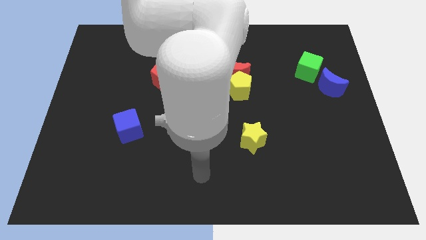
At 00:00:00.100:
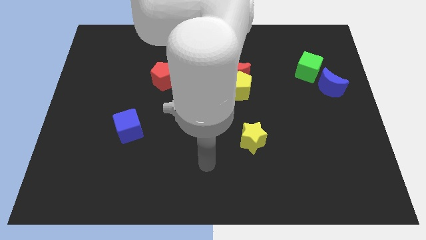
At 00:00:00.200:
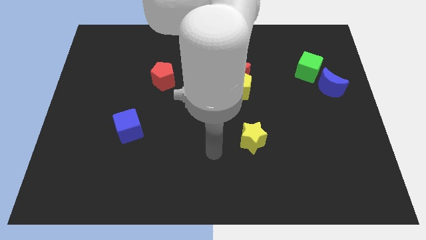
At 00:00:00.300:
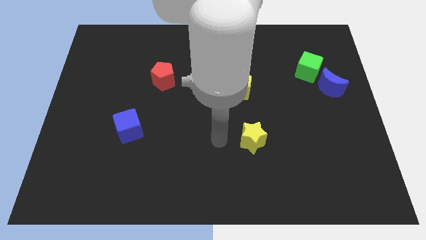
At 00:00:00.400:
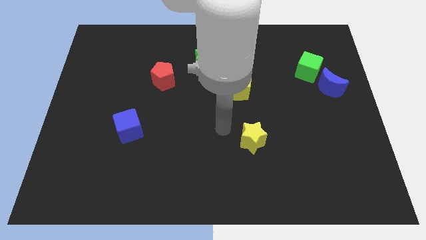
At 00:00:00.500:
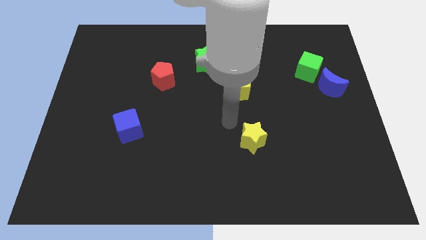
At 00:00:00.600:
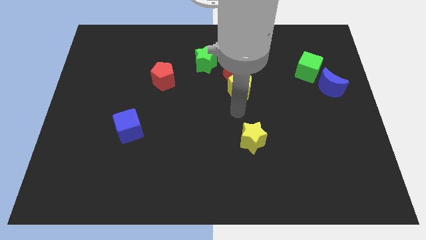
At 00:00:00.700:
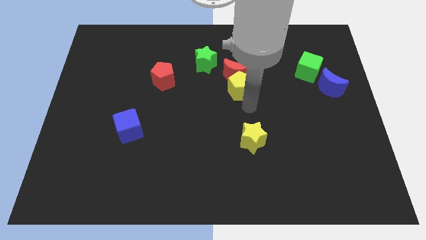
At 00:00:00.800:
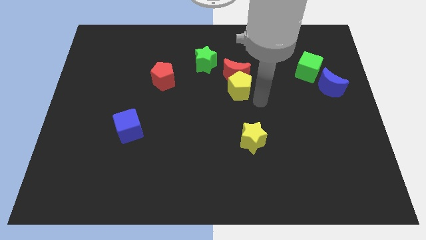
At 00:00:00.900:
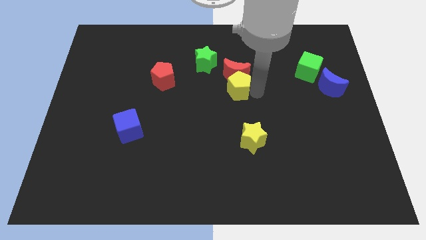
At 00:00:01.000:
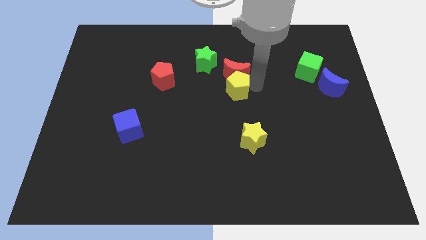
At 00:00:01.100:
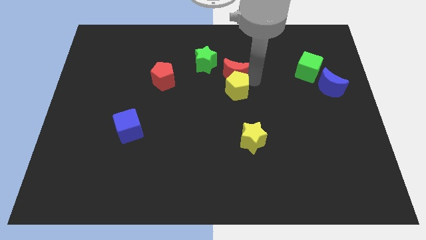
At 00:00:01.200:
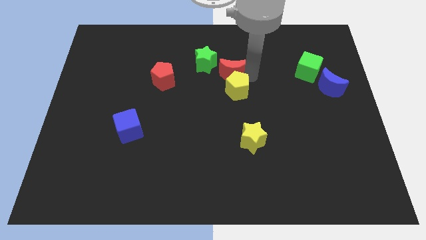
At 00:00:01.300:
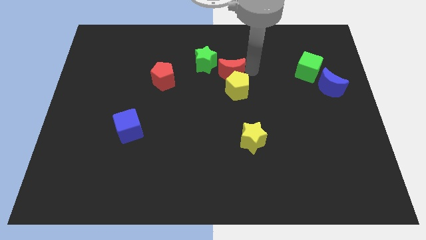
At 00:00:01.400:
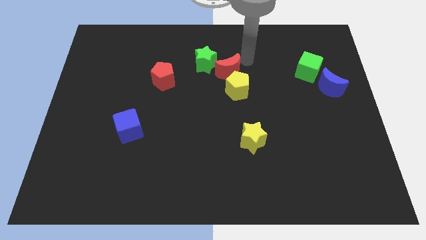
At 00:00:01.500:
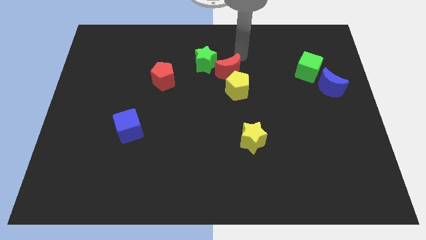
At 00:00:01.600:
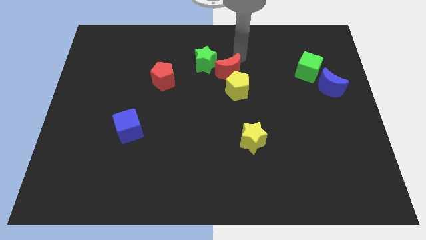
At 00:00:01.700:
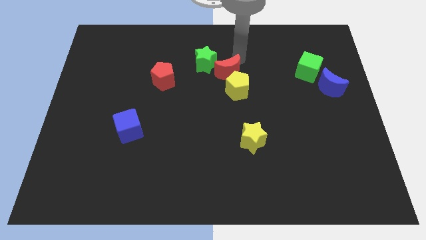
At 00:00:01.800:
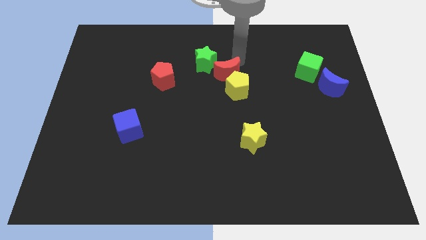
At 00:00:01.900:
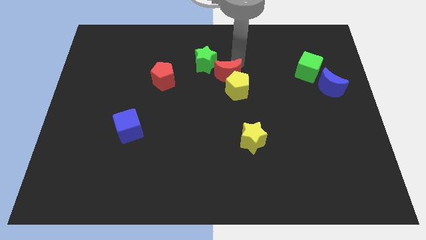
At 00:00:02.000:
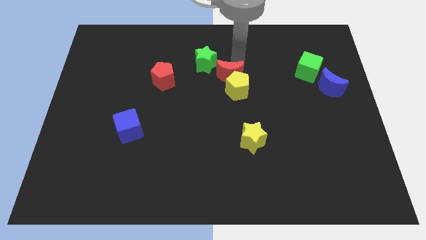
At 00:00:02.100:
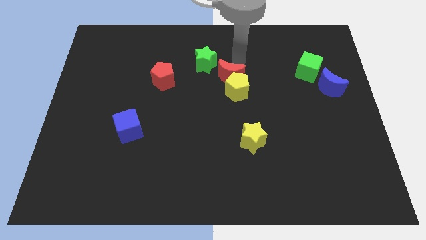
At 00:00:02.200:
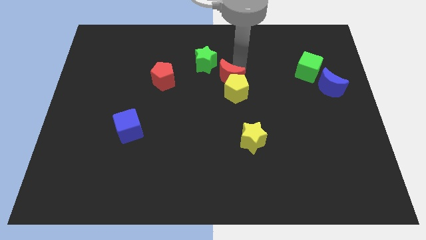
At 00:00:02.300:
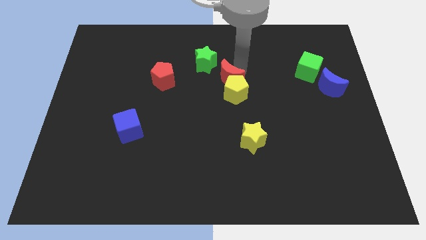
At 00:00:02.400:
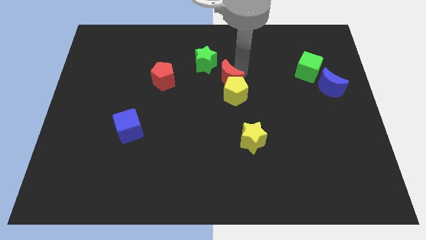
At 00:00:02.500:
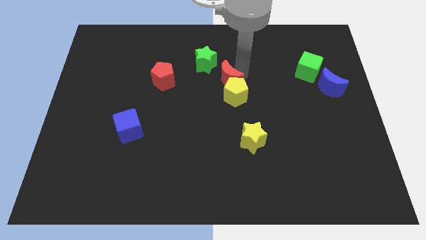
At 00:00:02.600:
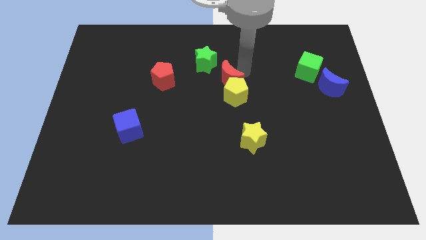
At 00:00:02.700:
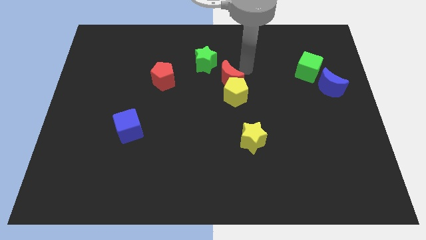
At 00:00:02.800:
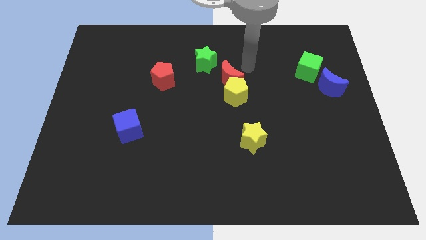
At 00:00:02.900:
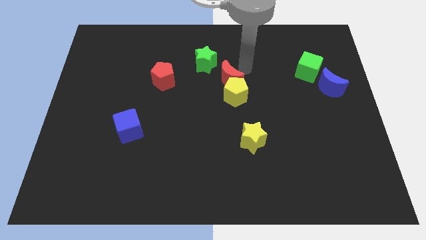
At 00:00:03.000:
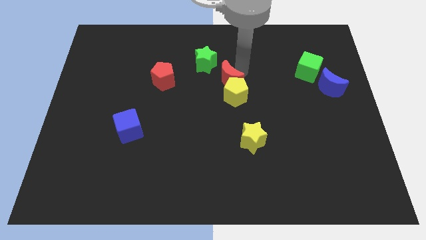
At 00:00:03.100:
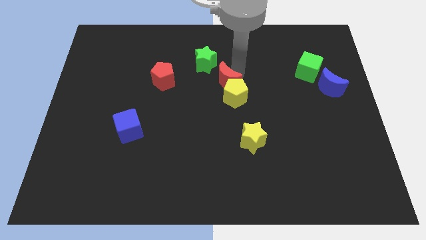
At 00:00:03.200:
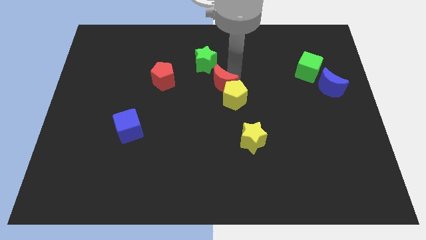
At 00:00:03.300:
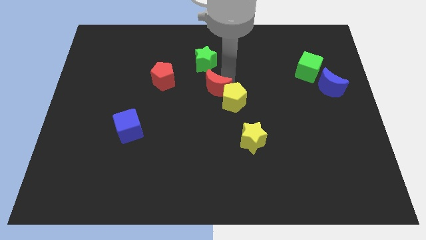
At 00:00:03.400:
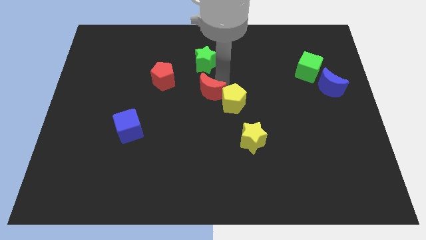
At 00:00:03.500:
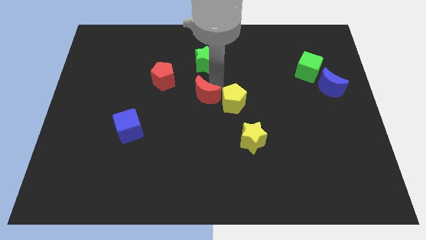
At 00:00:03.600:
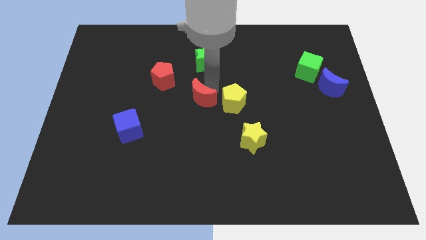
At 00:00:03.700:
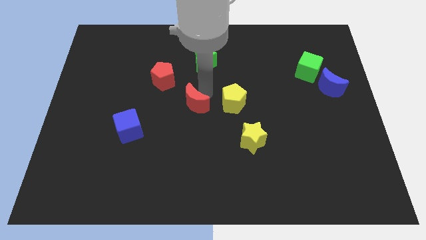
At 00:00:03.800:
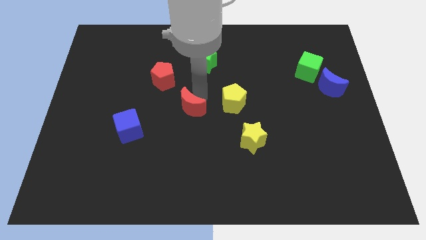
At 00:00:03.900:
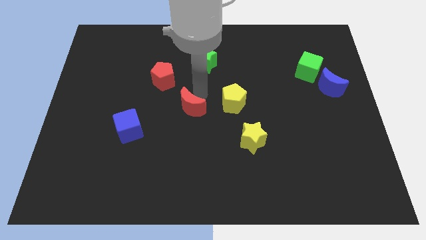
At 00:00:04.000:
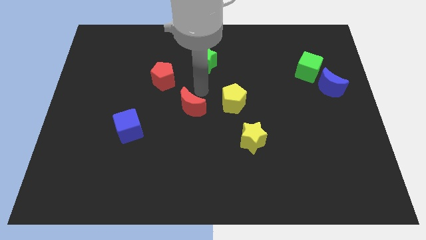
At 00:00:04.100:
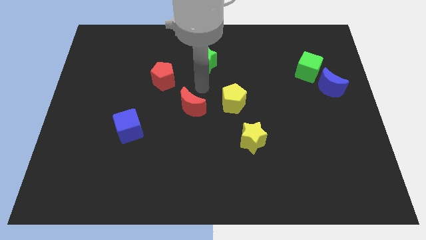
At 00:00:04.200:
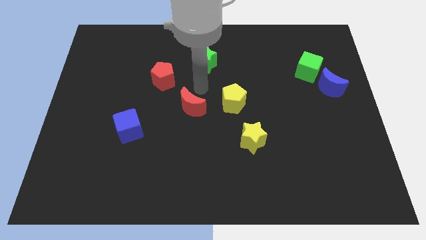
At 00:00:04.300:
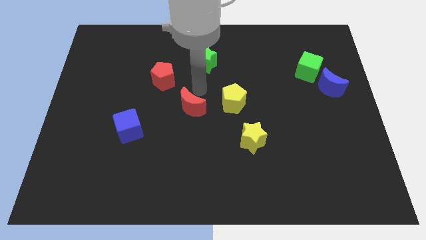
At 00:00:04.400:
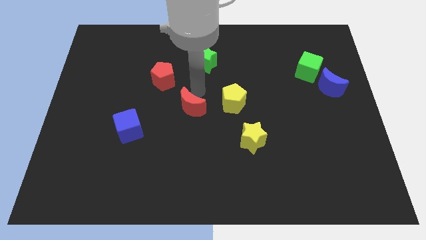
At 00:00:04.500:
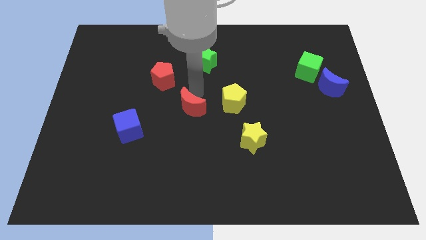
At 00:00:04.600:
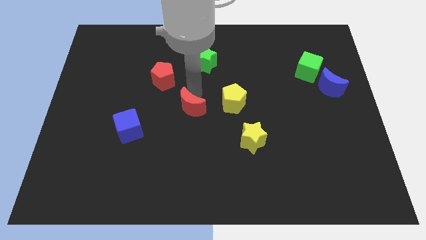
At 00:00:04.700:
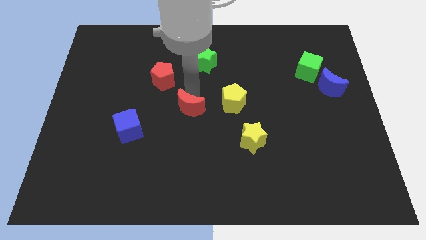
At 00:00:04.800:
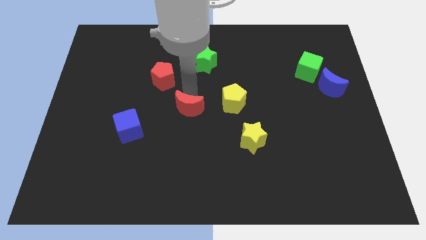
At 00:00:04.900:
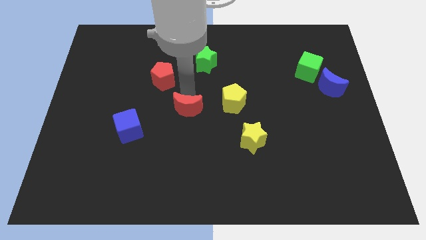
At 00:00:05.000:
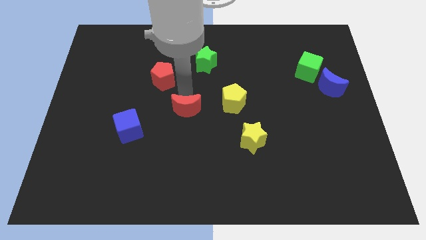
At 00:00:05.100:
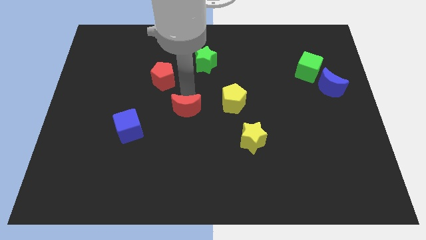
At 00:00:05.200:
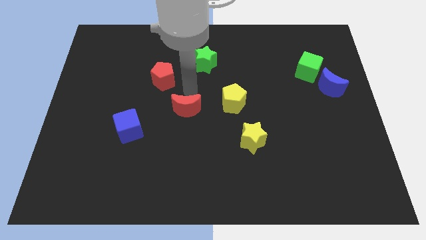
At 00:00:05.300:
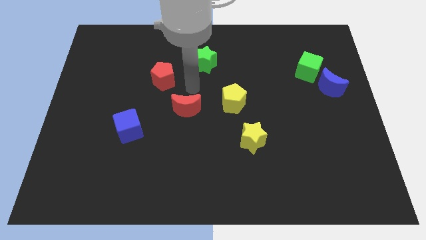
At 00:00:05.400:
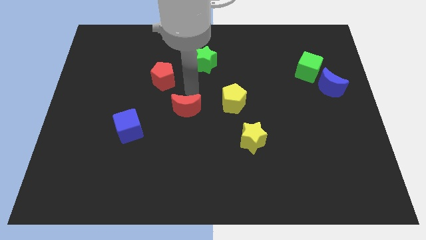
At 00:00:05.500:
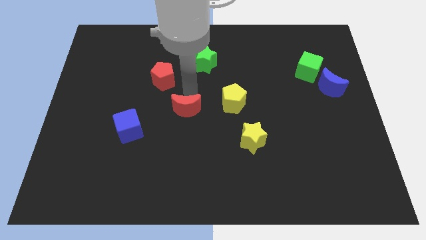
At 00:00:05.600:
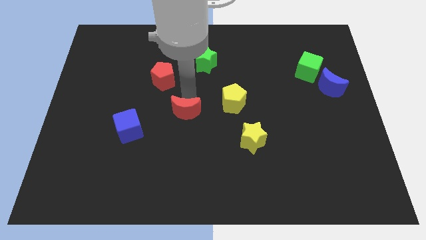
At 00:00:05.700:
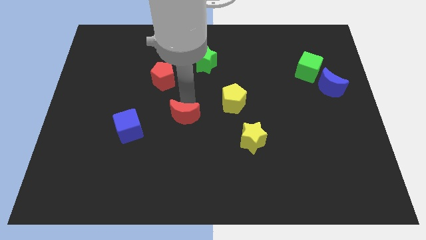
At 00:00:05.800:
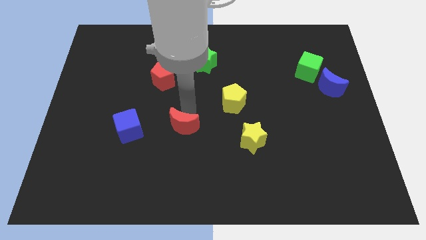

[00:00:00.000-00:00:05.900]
push the red moon downwards and to the left diagonally

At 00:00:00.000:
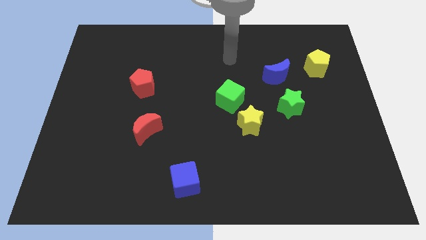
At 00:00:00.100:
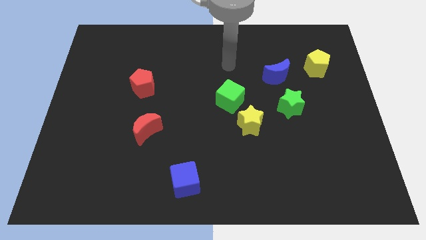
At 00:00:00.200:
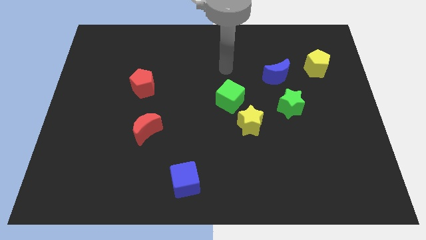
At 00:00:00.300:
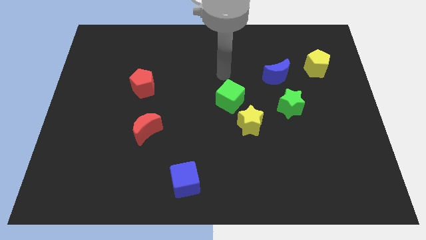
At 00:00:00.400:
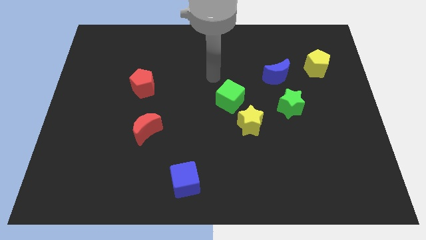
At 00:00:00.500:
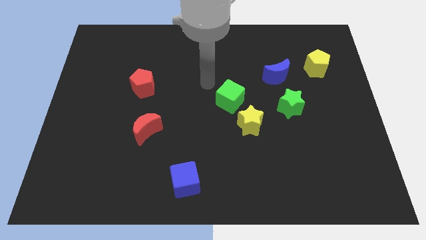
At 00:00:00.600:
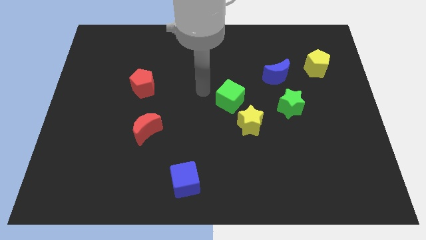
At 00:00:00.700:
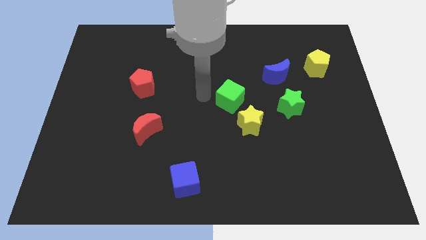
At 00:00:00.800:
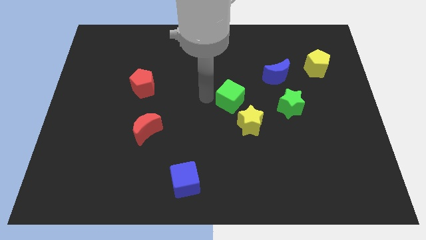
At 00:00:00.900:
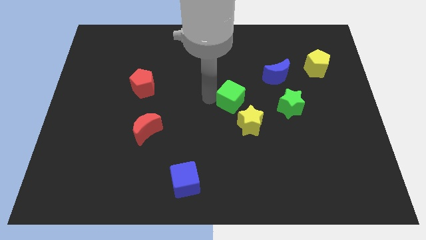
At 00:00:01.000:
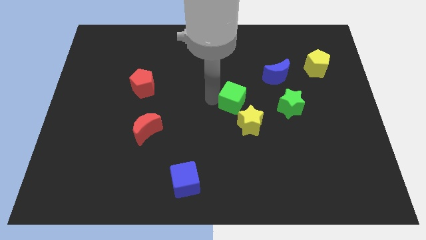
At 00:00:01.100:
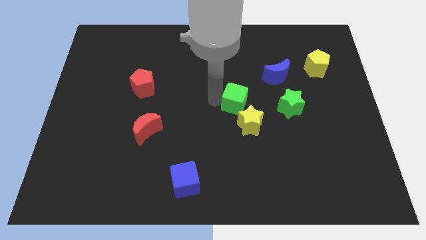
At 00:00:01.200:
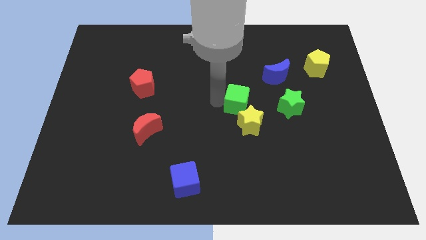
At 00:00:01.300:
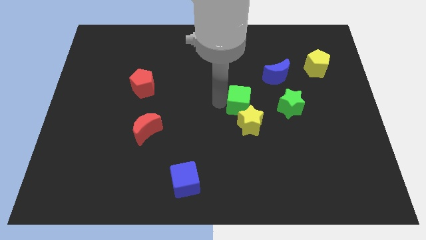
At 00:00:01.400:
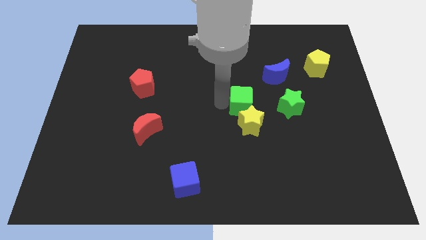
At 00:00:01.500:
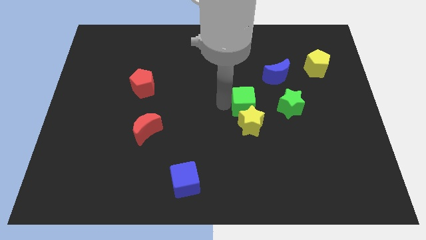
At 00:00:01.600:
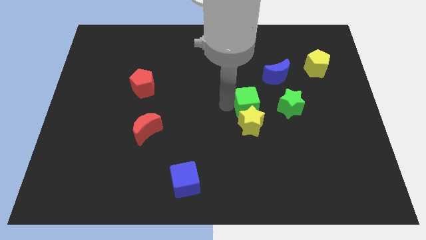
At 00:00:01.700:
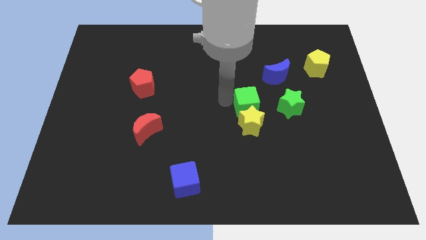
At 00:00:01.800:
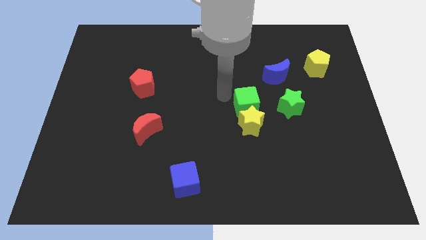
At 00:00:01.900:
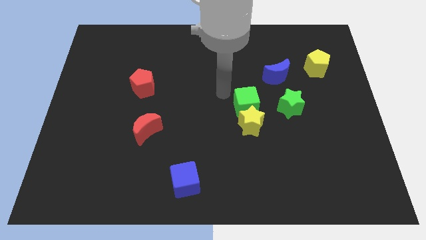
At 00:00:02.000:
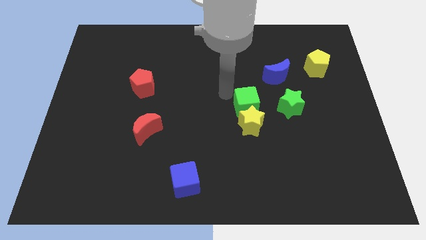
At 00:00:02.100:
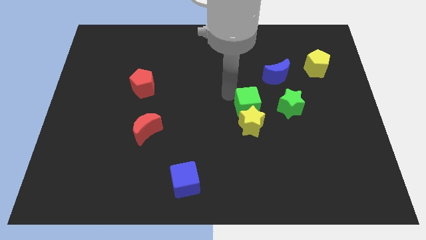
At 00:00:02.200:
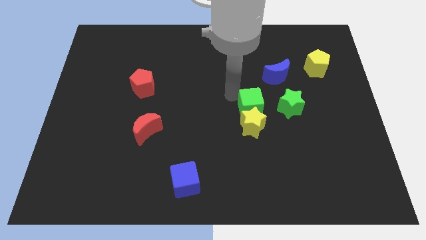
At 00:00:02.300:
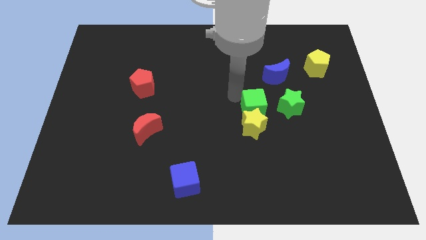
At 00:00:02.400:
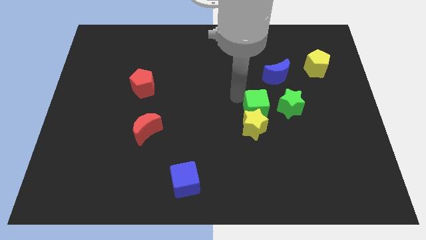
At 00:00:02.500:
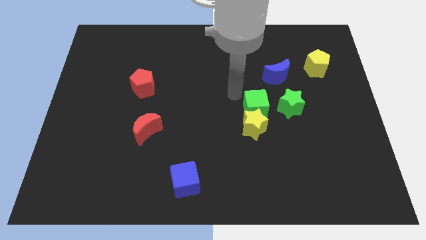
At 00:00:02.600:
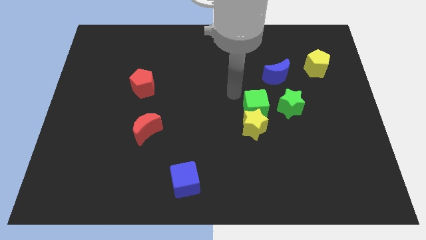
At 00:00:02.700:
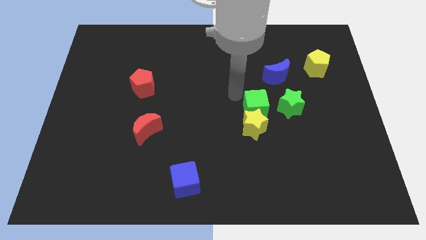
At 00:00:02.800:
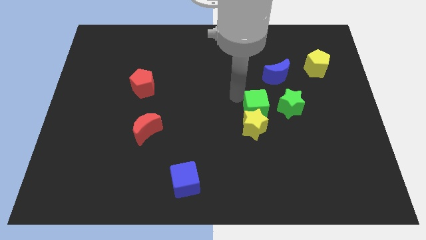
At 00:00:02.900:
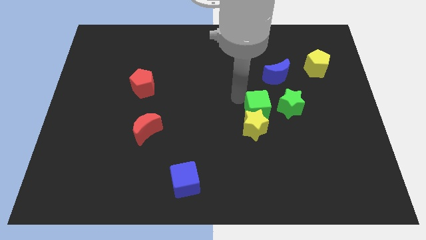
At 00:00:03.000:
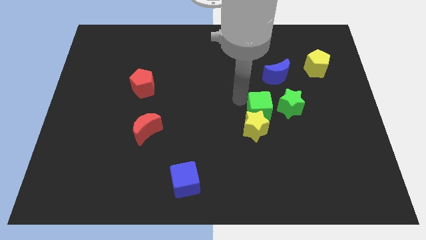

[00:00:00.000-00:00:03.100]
slightly slide the green cube down and to the right diagonally
